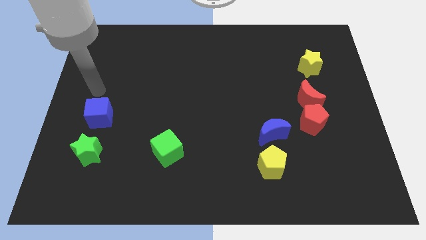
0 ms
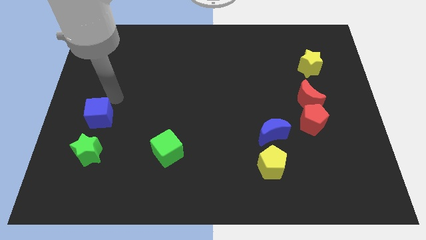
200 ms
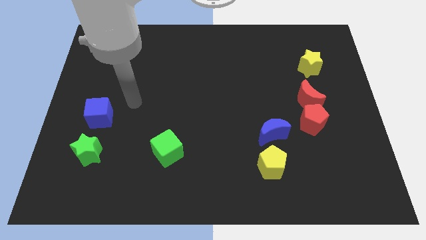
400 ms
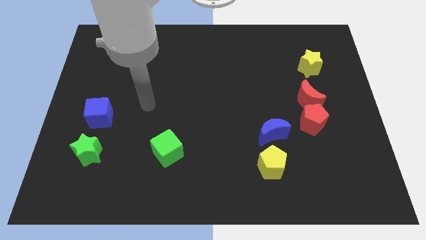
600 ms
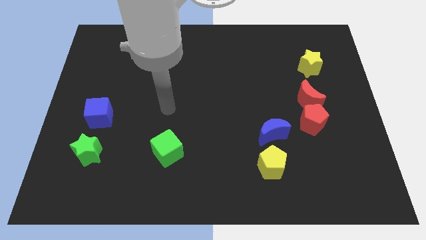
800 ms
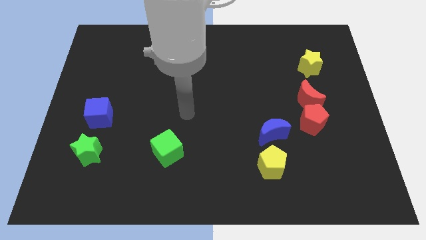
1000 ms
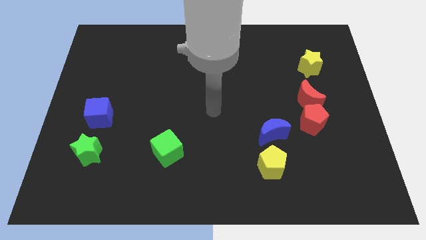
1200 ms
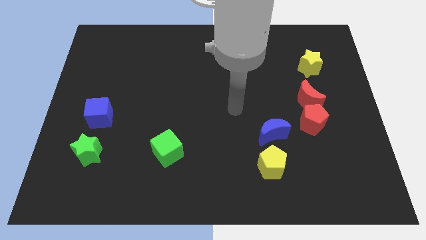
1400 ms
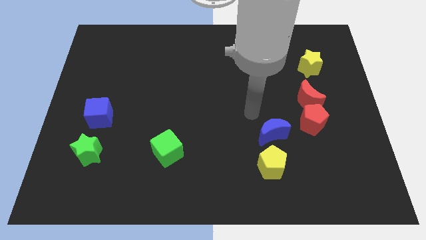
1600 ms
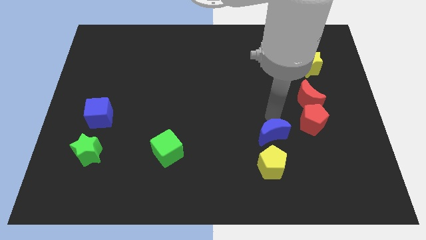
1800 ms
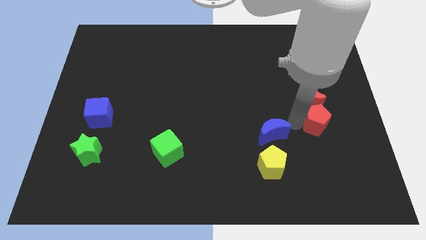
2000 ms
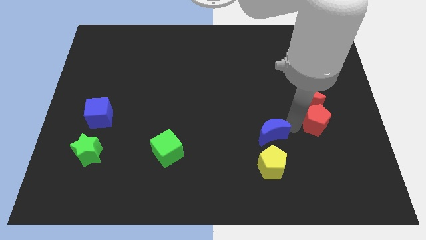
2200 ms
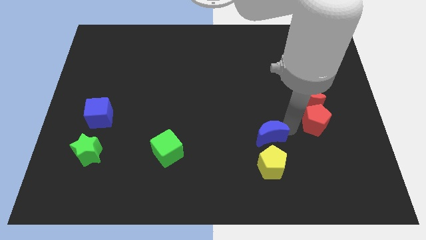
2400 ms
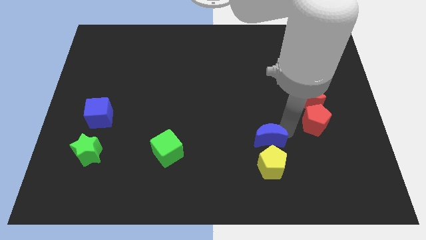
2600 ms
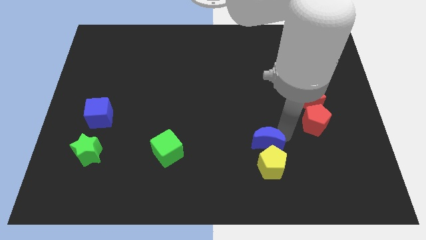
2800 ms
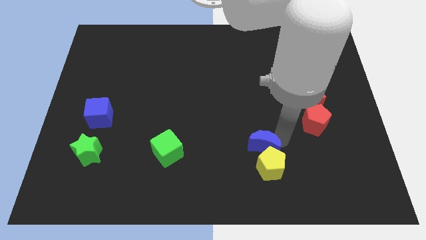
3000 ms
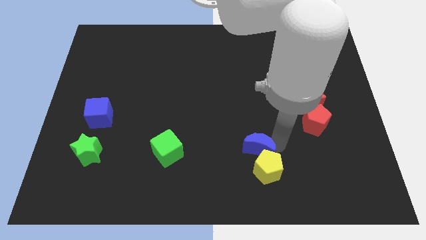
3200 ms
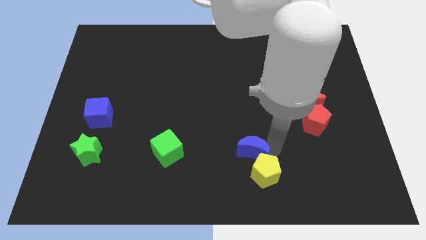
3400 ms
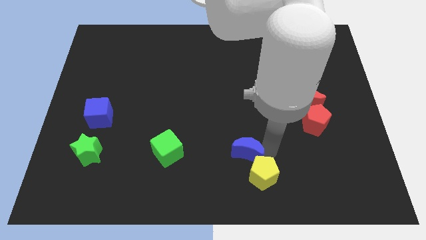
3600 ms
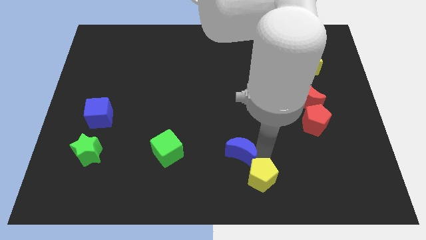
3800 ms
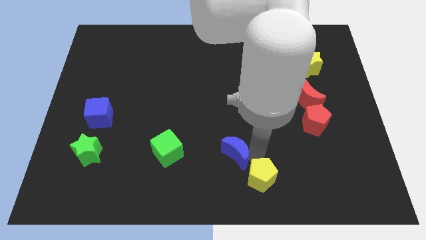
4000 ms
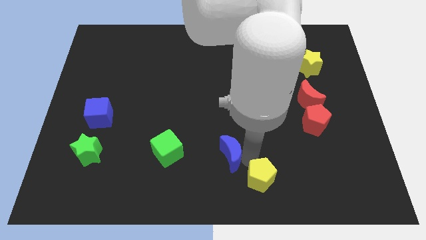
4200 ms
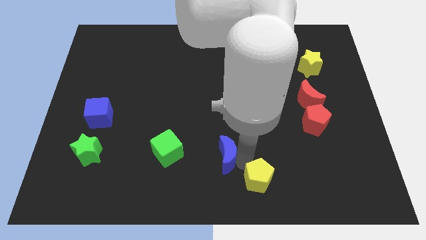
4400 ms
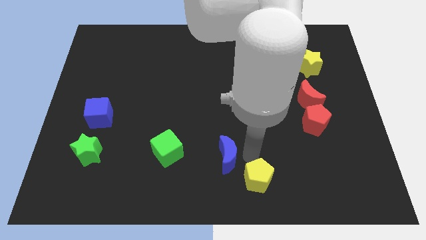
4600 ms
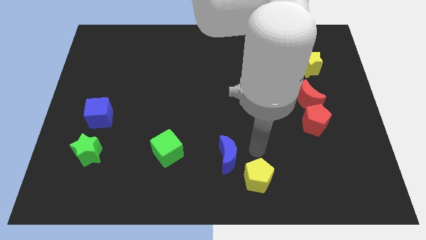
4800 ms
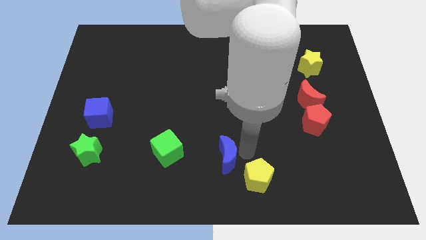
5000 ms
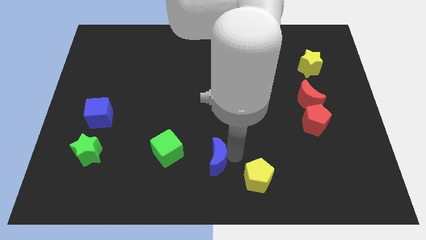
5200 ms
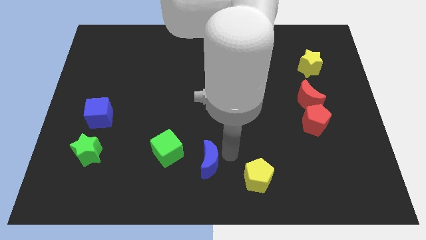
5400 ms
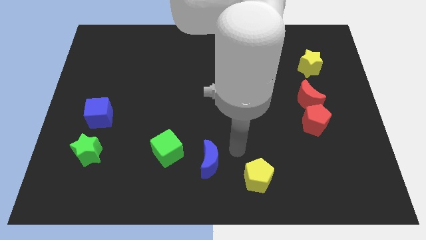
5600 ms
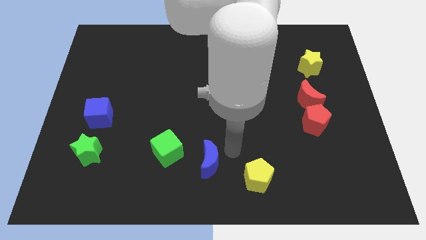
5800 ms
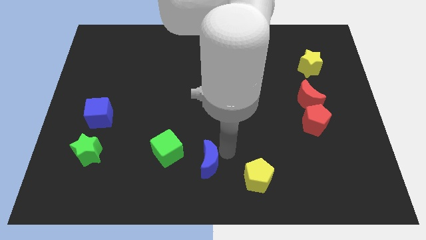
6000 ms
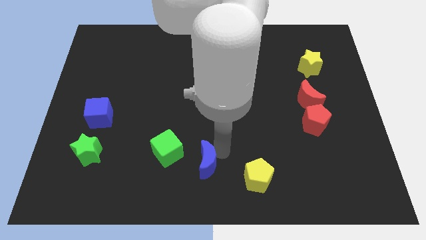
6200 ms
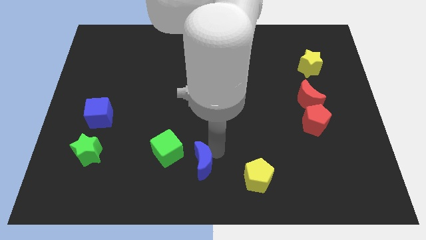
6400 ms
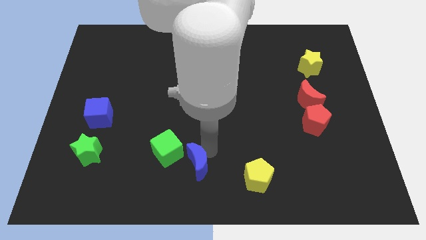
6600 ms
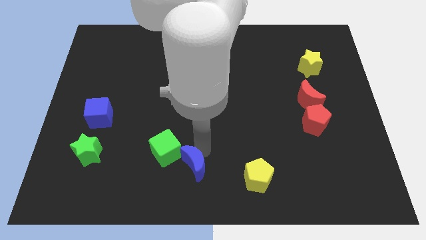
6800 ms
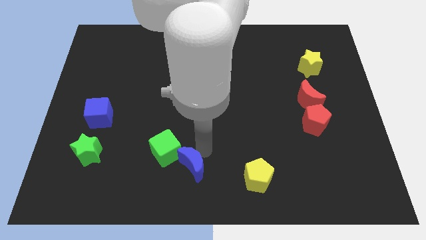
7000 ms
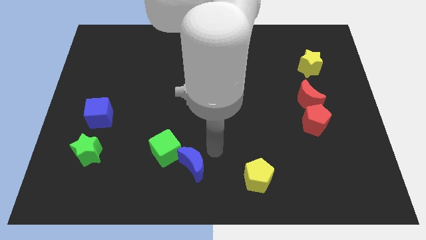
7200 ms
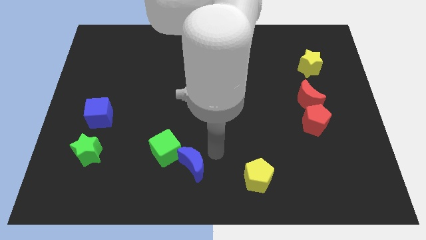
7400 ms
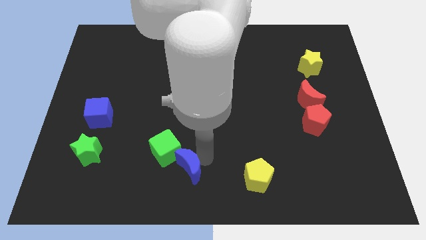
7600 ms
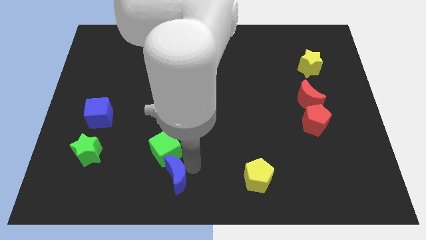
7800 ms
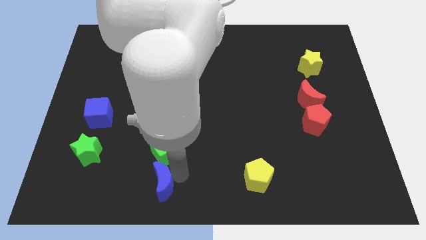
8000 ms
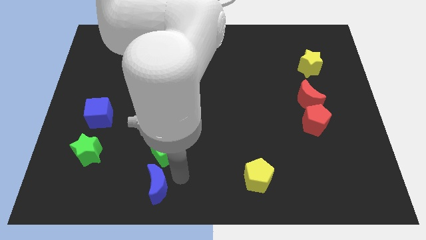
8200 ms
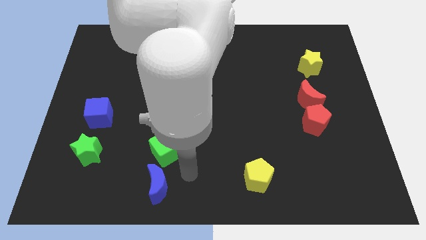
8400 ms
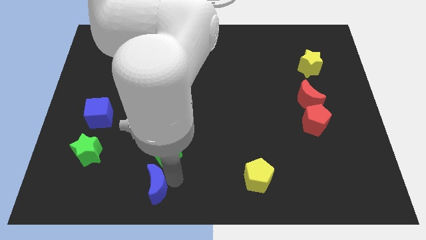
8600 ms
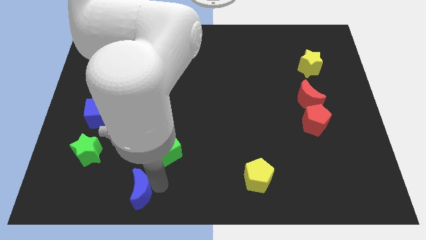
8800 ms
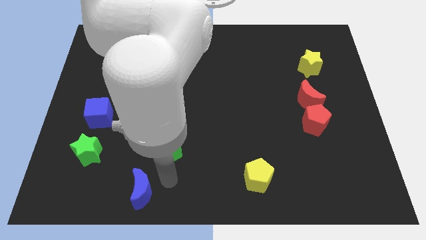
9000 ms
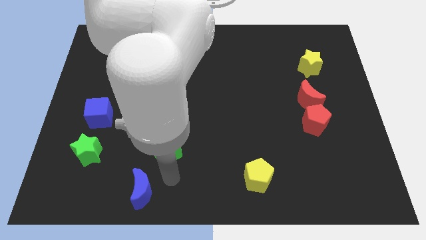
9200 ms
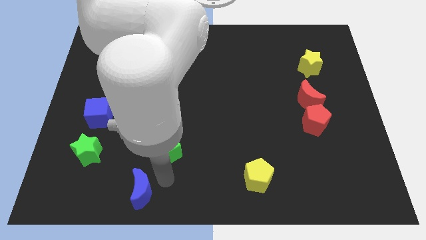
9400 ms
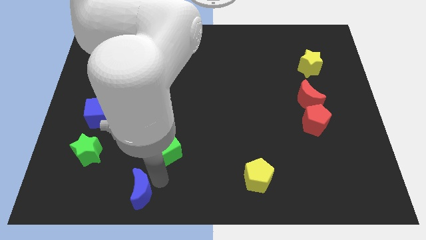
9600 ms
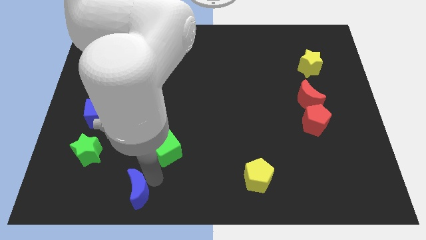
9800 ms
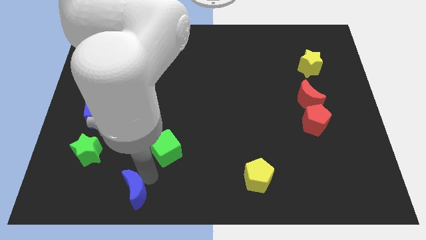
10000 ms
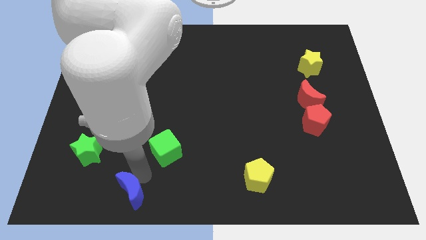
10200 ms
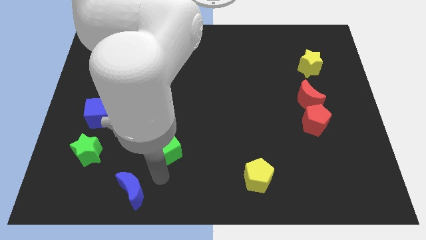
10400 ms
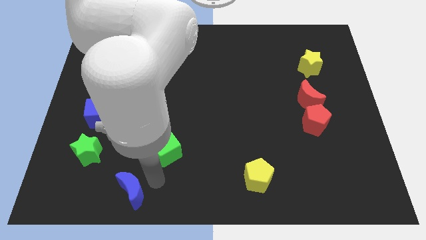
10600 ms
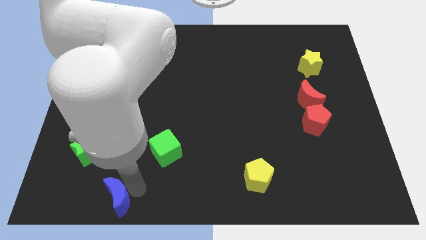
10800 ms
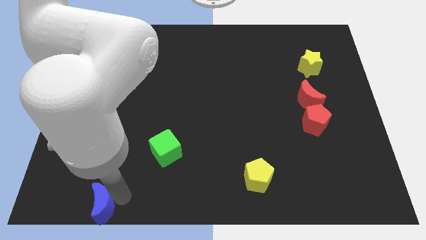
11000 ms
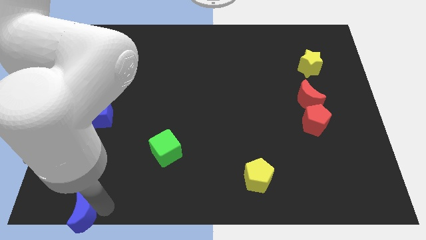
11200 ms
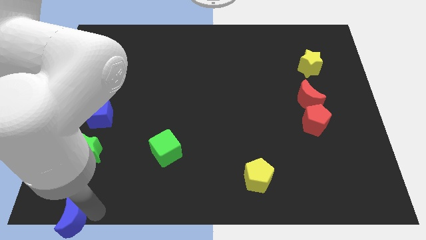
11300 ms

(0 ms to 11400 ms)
put the blue moon to the bottom left

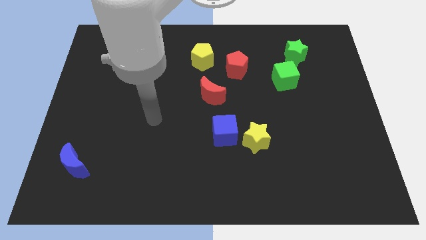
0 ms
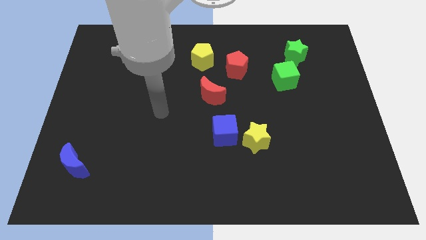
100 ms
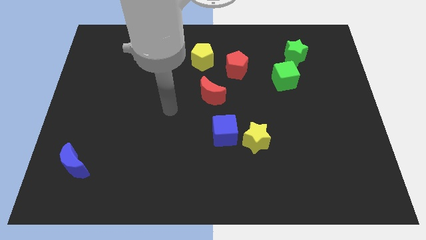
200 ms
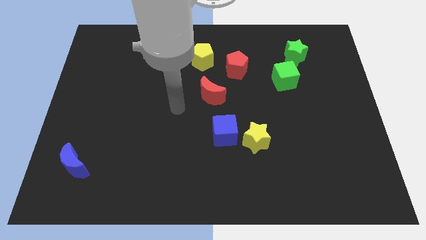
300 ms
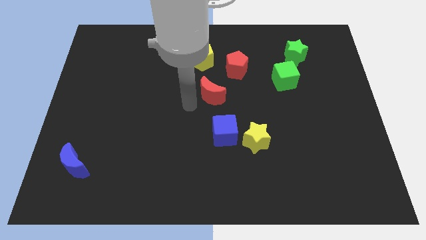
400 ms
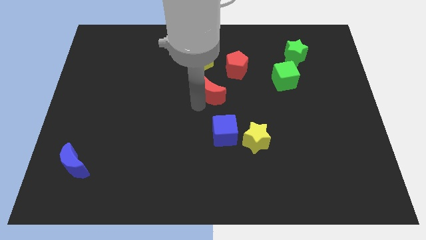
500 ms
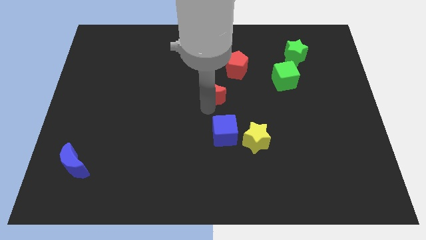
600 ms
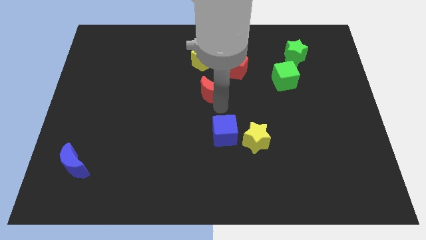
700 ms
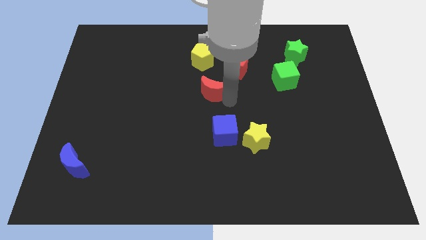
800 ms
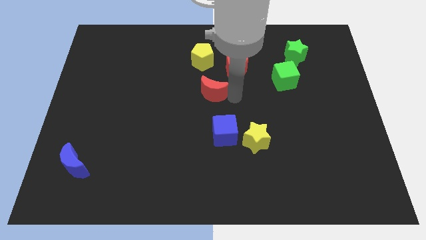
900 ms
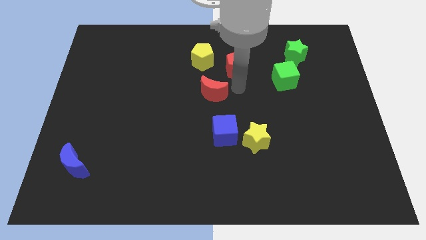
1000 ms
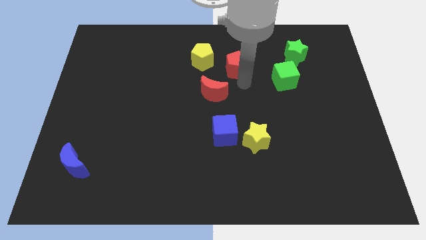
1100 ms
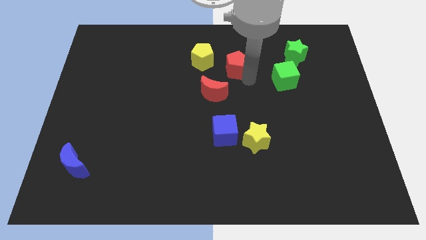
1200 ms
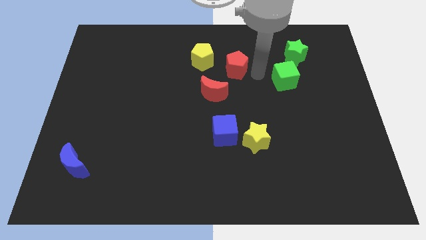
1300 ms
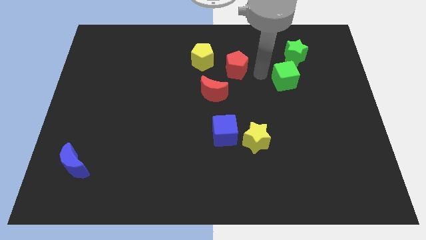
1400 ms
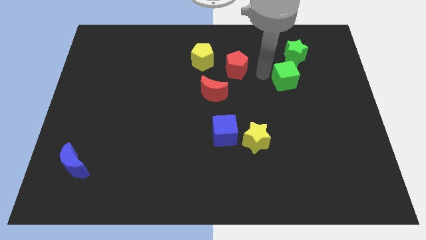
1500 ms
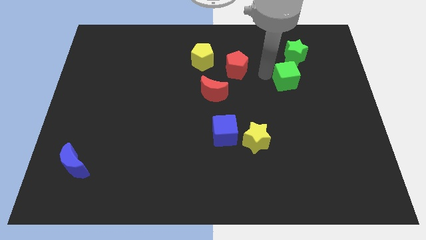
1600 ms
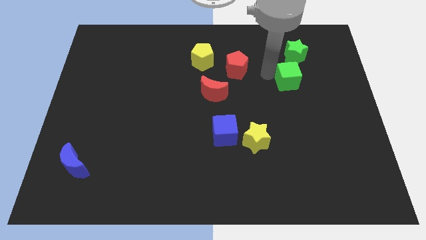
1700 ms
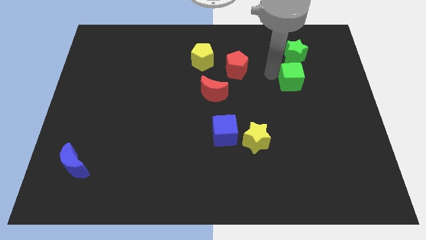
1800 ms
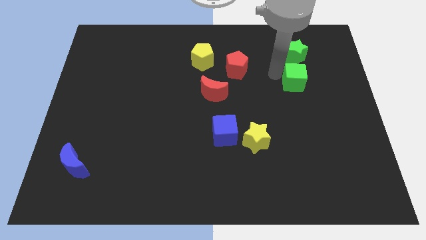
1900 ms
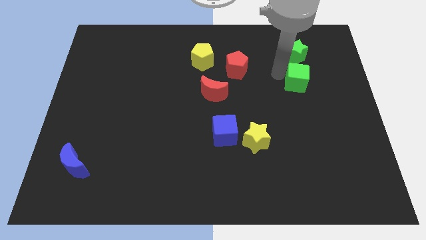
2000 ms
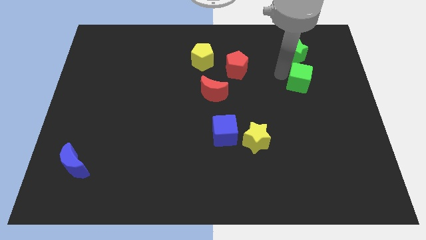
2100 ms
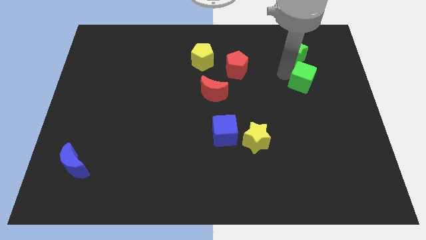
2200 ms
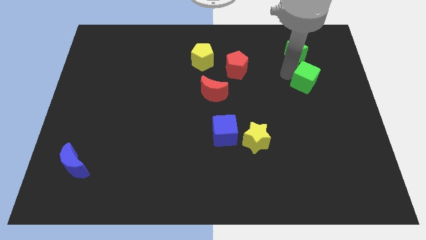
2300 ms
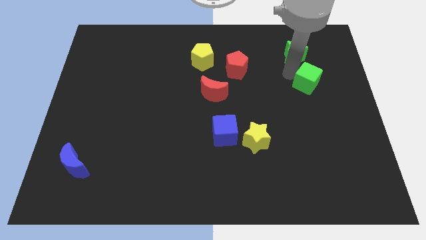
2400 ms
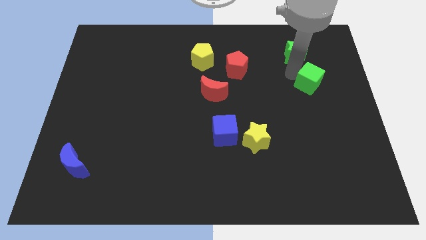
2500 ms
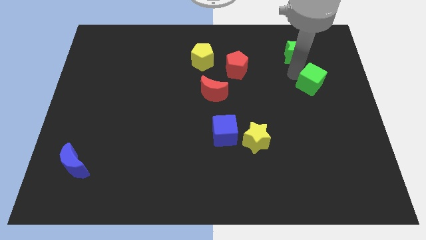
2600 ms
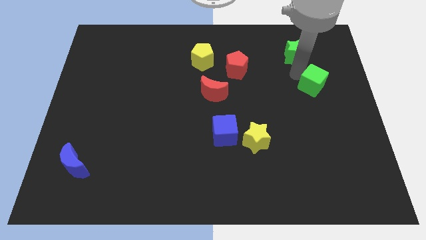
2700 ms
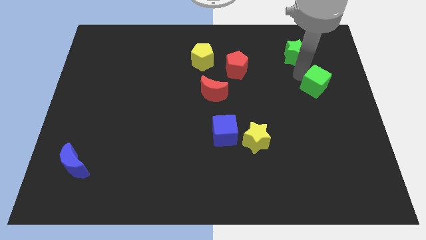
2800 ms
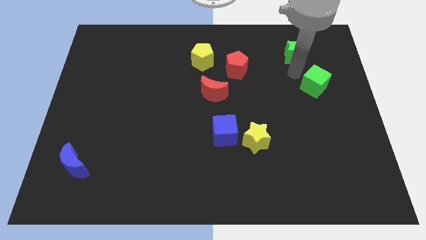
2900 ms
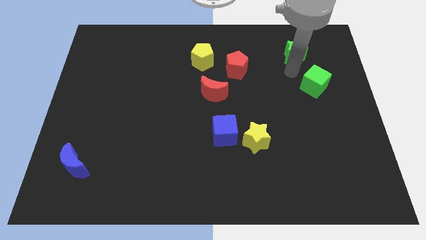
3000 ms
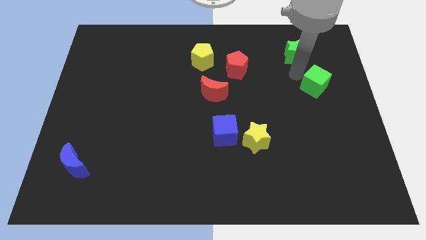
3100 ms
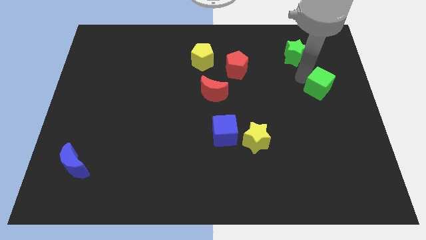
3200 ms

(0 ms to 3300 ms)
put the green cube to the center right
